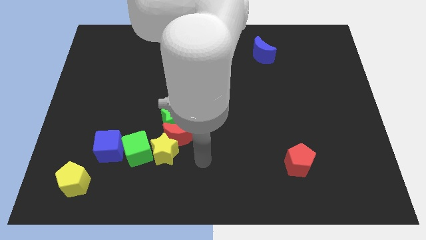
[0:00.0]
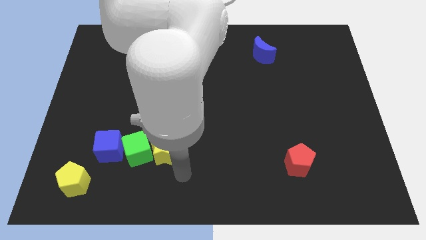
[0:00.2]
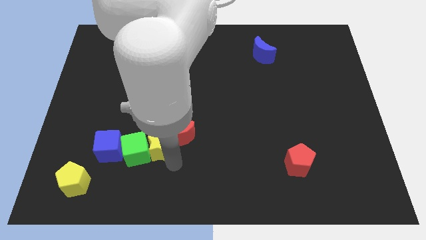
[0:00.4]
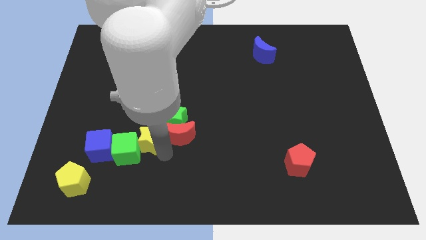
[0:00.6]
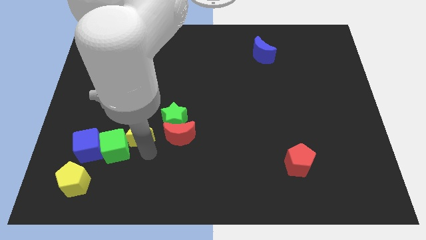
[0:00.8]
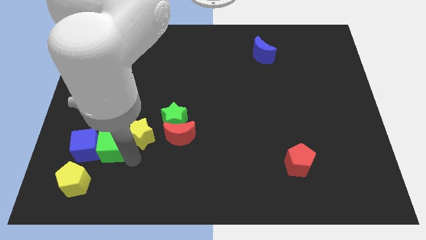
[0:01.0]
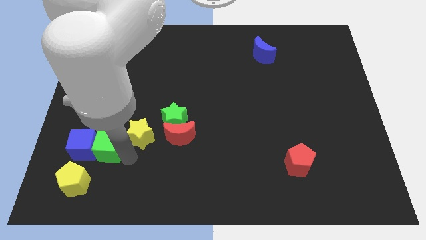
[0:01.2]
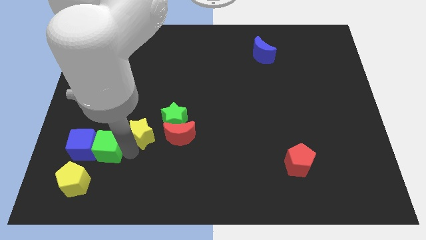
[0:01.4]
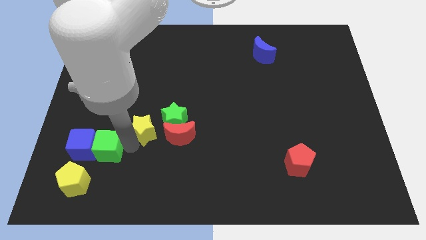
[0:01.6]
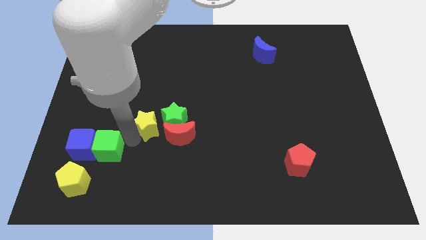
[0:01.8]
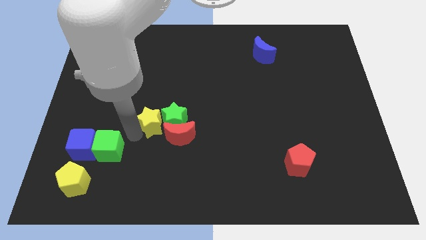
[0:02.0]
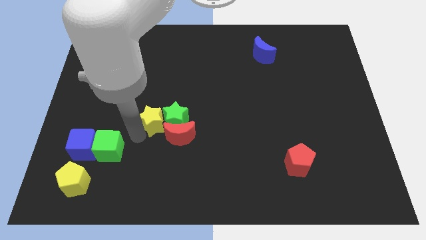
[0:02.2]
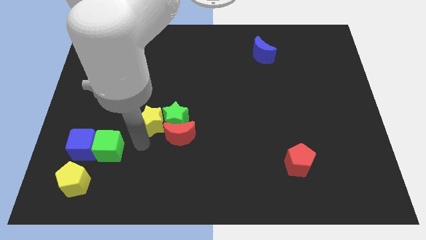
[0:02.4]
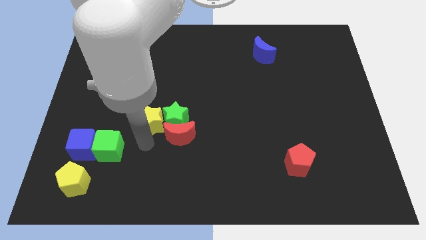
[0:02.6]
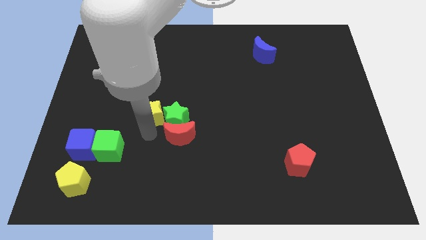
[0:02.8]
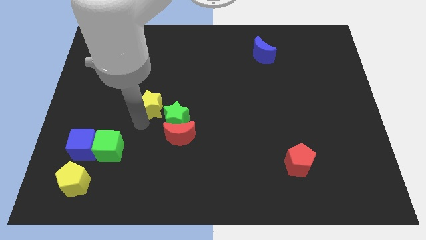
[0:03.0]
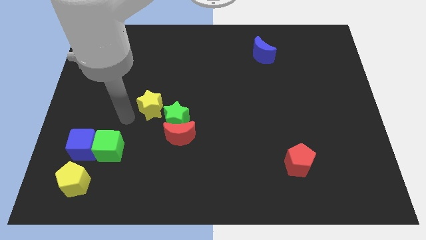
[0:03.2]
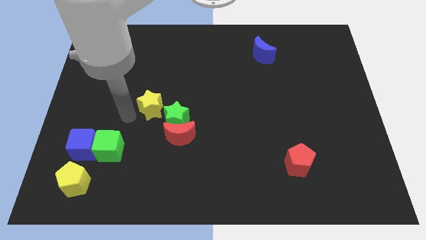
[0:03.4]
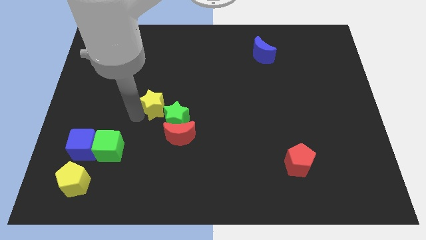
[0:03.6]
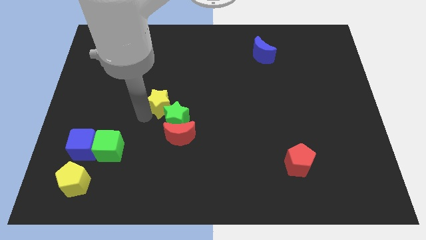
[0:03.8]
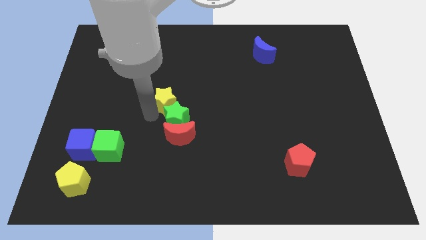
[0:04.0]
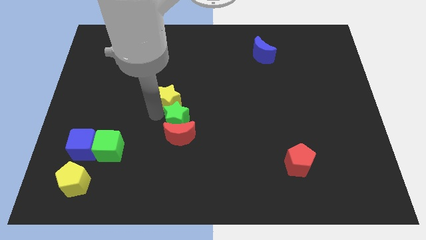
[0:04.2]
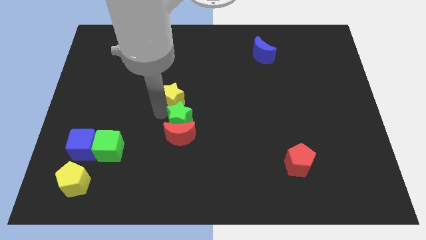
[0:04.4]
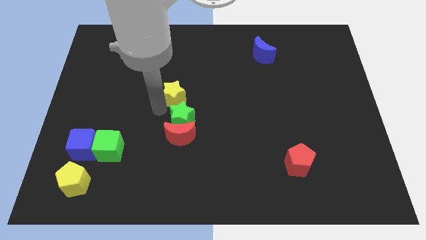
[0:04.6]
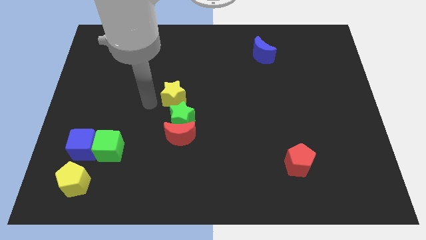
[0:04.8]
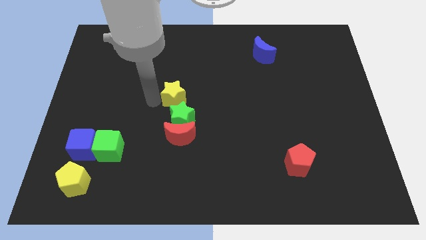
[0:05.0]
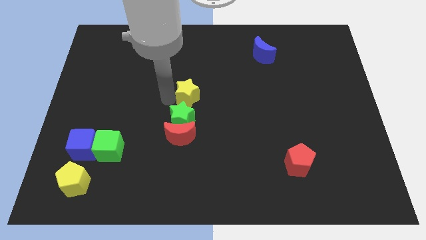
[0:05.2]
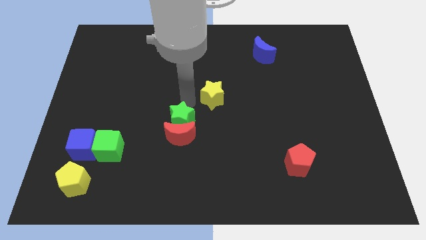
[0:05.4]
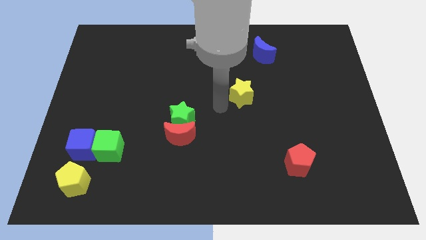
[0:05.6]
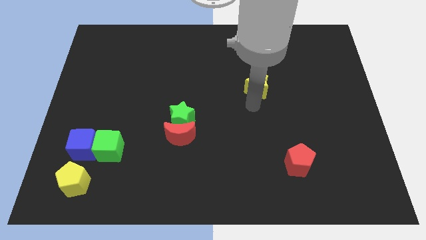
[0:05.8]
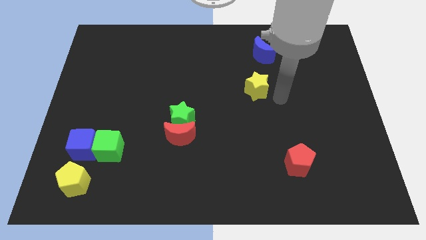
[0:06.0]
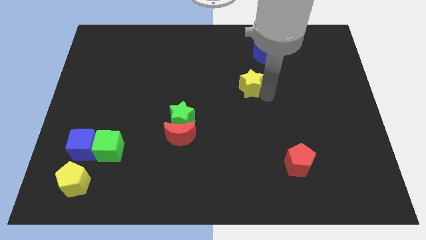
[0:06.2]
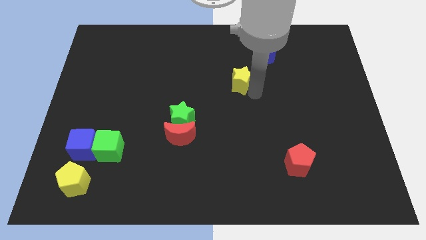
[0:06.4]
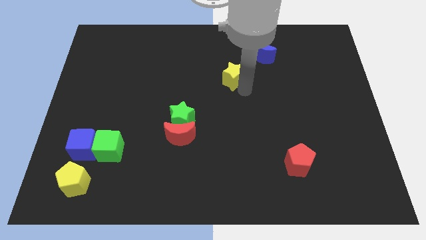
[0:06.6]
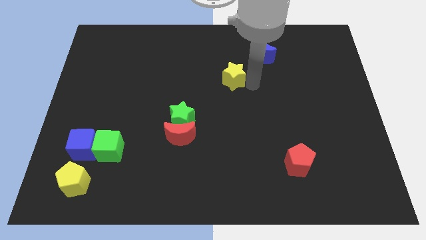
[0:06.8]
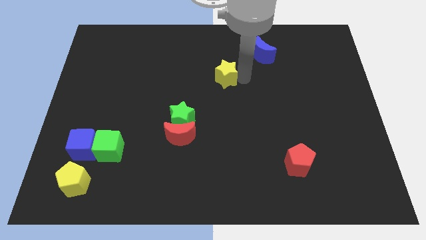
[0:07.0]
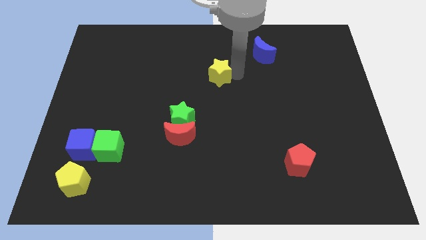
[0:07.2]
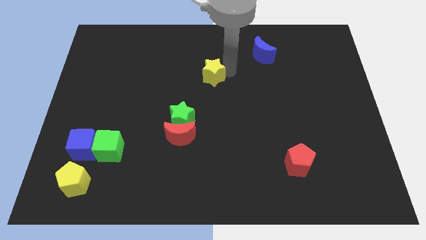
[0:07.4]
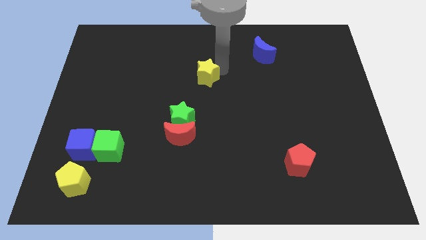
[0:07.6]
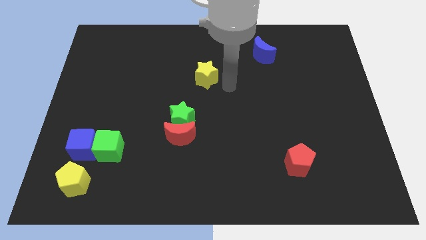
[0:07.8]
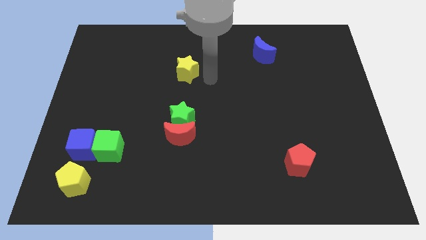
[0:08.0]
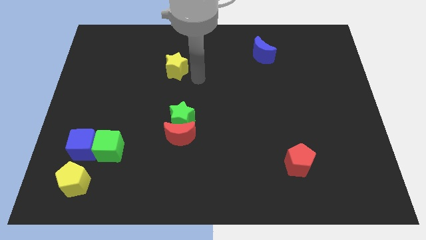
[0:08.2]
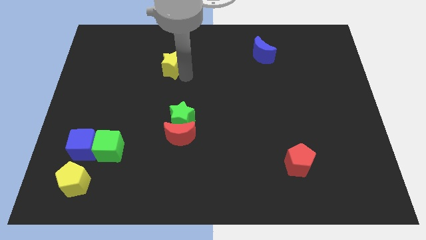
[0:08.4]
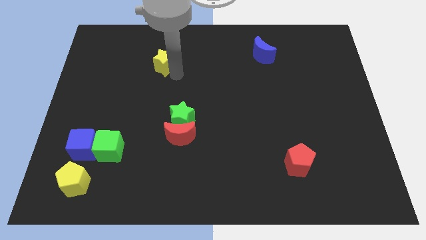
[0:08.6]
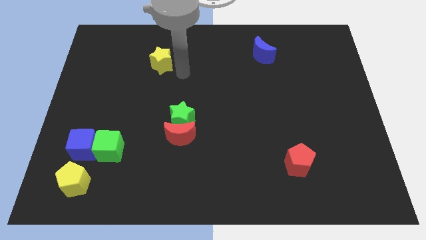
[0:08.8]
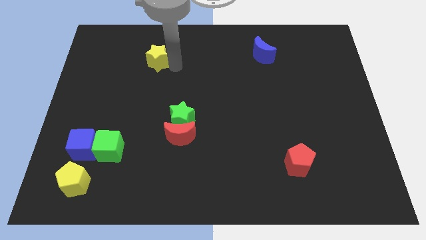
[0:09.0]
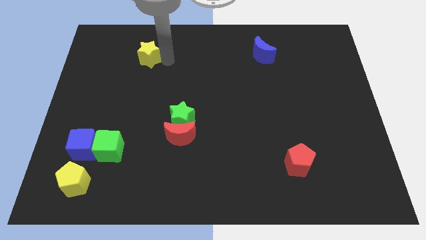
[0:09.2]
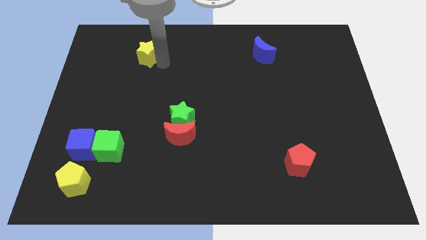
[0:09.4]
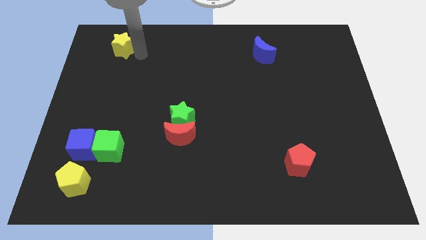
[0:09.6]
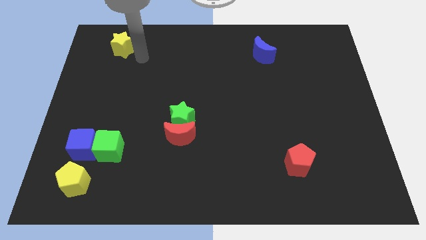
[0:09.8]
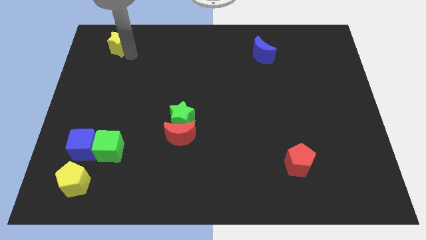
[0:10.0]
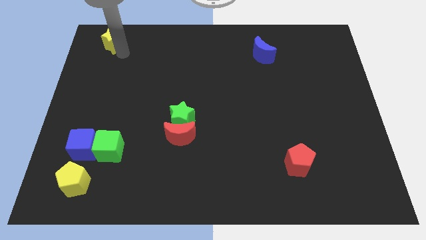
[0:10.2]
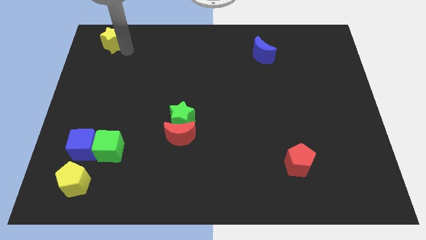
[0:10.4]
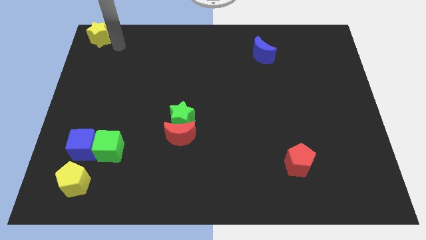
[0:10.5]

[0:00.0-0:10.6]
move the yellow star to the top left
